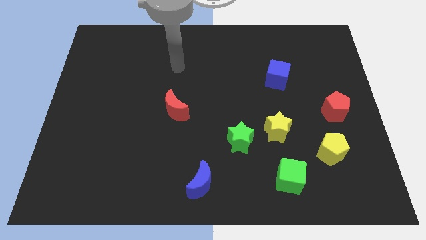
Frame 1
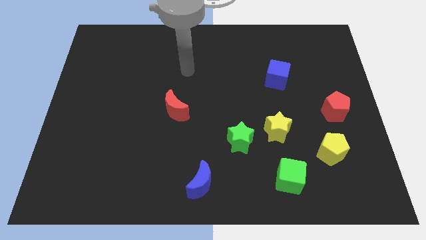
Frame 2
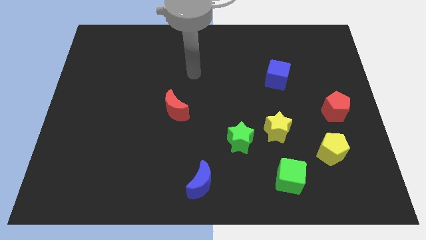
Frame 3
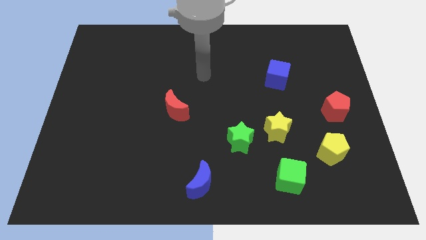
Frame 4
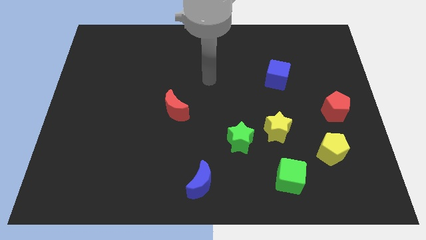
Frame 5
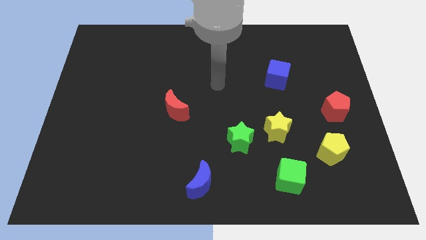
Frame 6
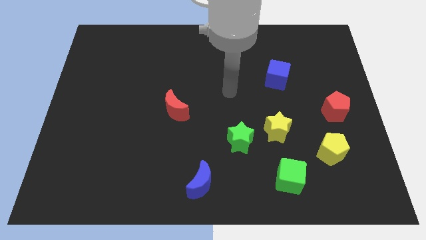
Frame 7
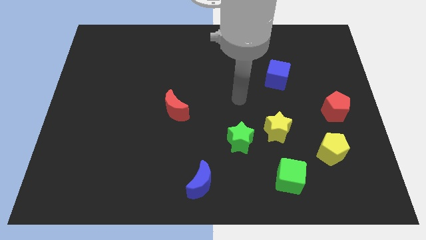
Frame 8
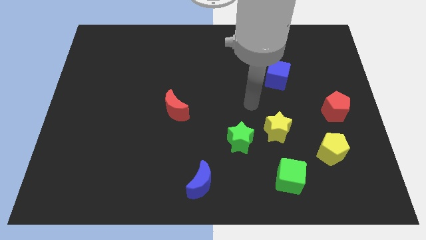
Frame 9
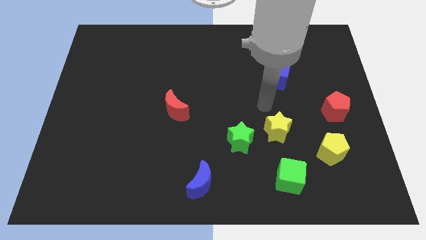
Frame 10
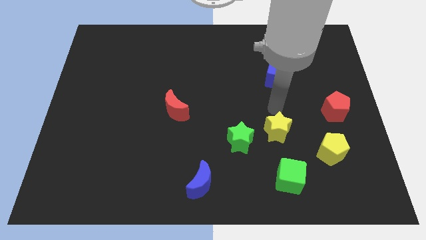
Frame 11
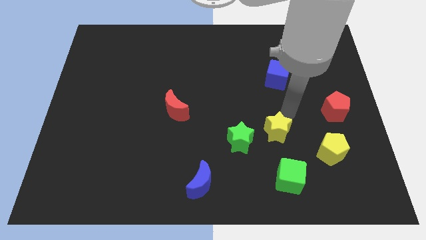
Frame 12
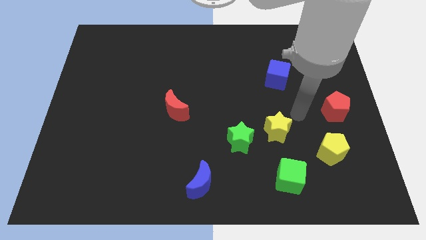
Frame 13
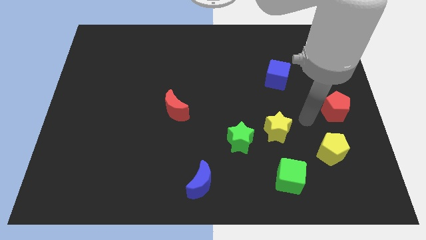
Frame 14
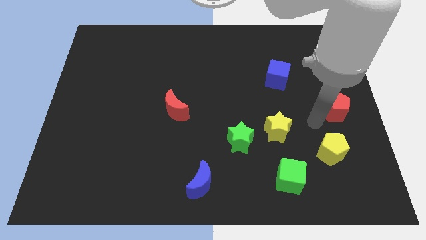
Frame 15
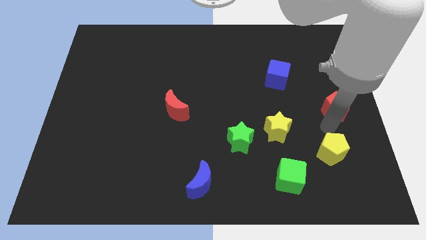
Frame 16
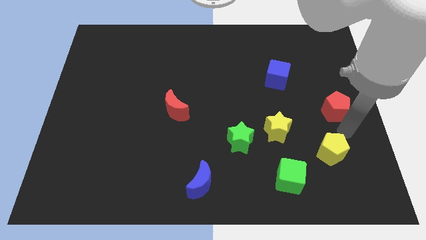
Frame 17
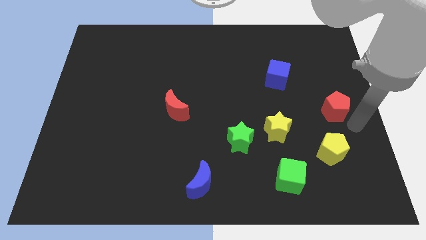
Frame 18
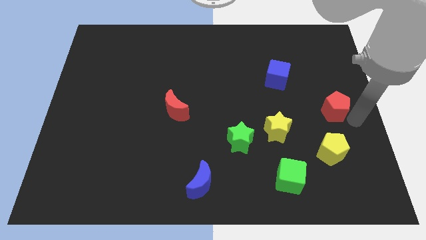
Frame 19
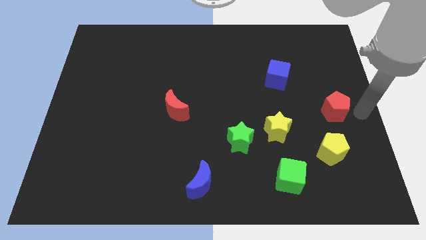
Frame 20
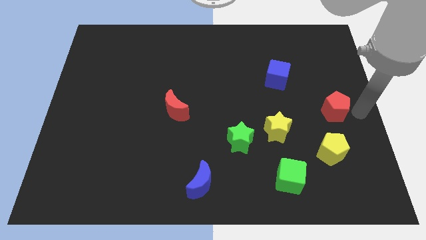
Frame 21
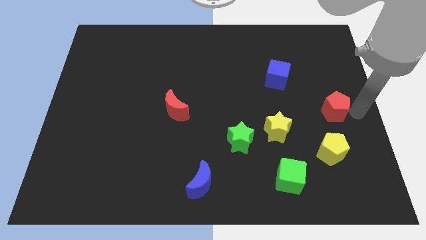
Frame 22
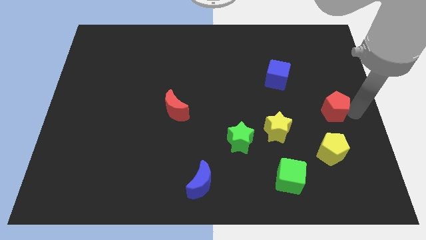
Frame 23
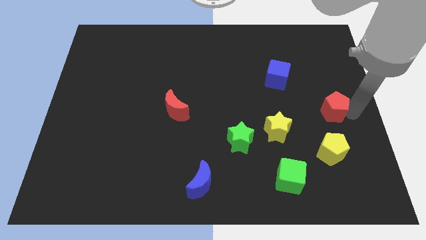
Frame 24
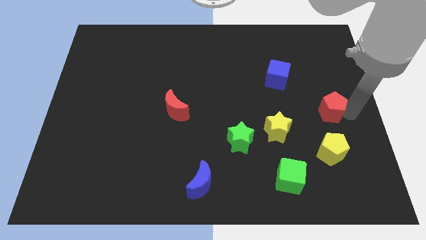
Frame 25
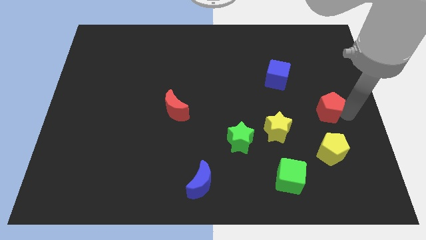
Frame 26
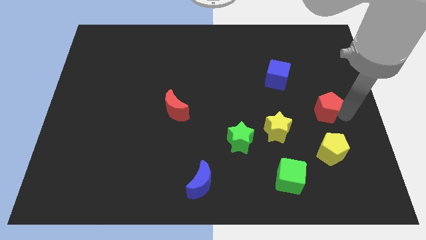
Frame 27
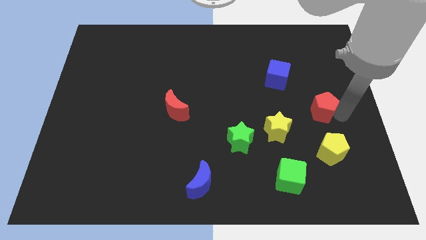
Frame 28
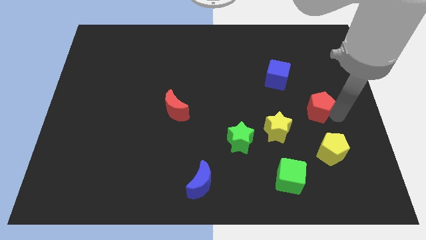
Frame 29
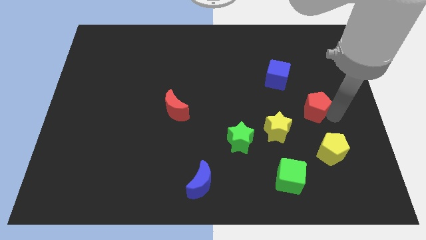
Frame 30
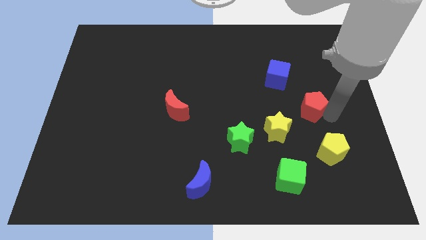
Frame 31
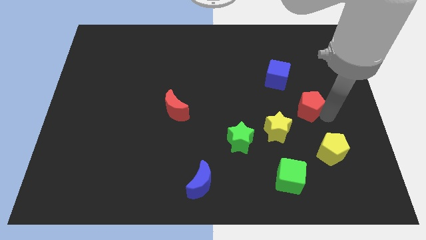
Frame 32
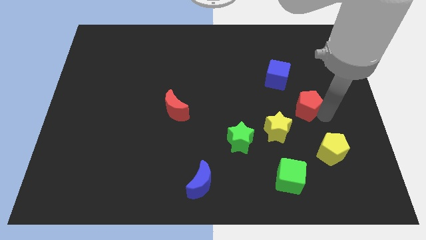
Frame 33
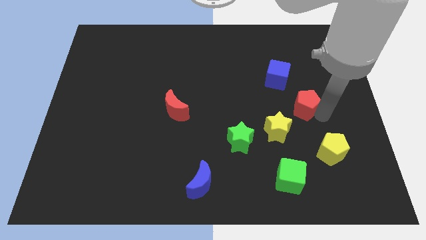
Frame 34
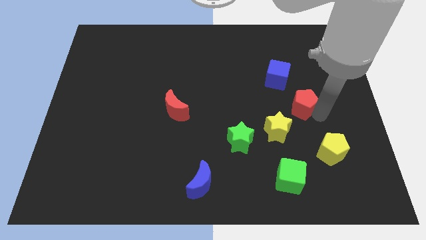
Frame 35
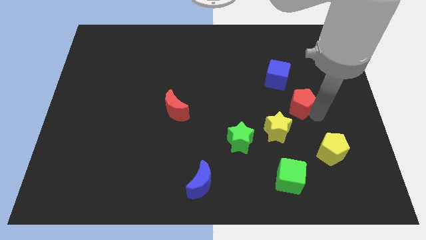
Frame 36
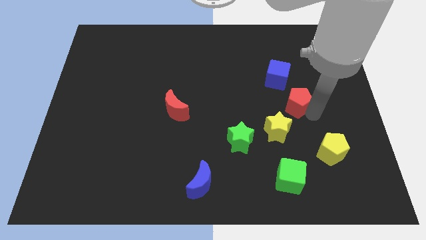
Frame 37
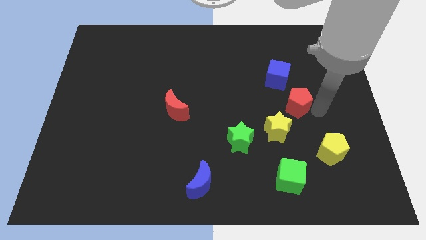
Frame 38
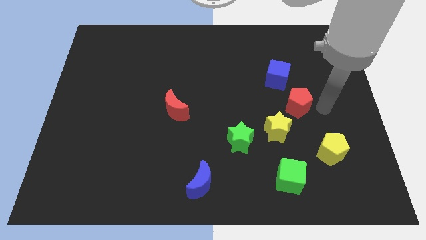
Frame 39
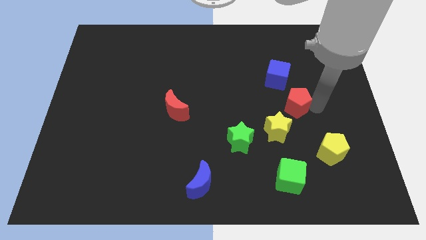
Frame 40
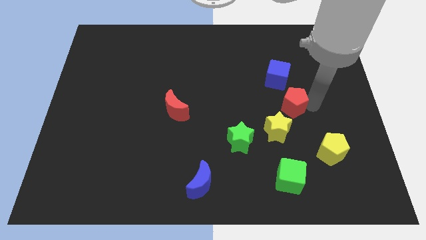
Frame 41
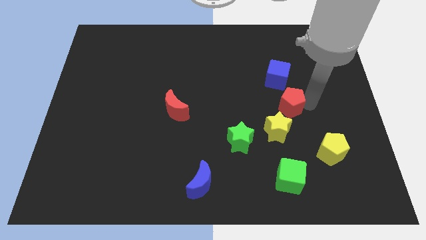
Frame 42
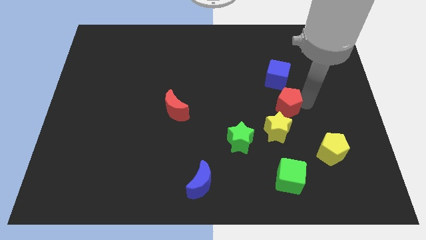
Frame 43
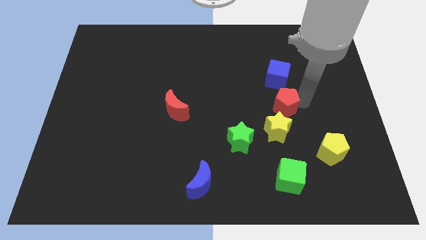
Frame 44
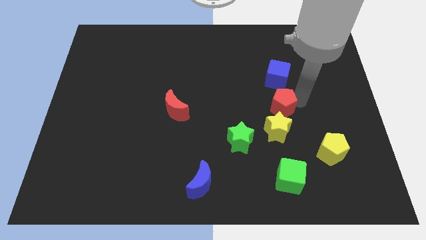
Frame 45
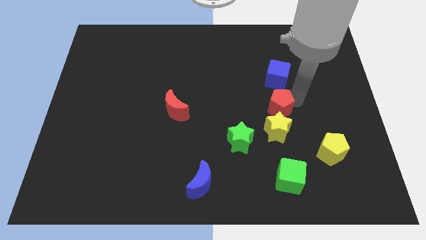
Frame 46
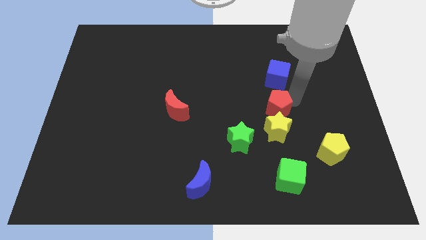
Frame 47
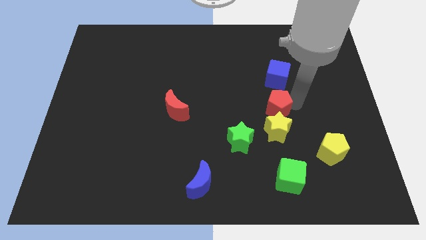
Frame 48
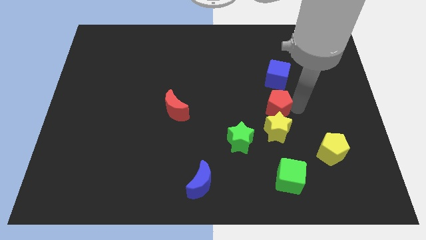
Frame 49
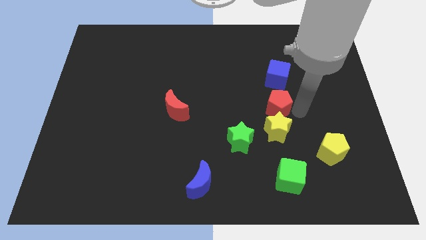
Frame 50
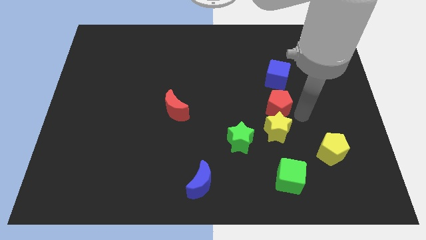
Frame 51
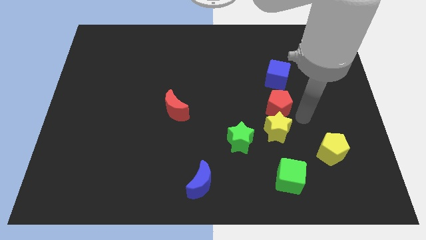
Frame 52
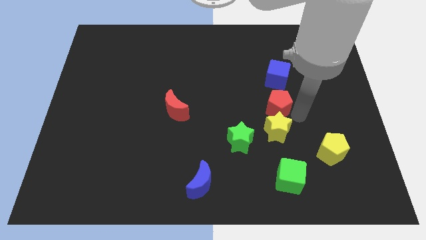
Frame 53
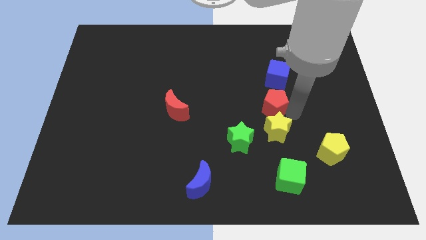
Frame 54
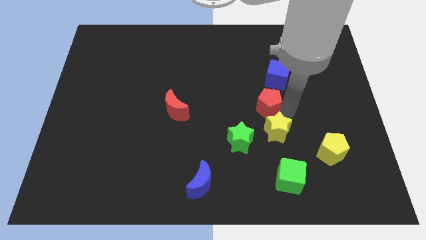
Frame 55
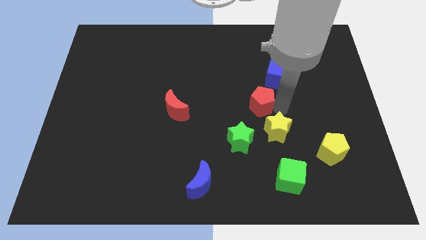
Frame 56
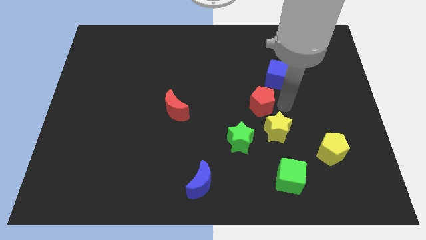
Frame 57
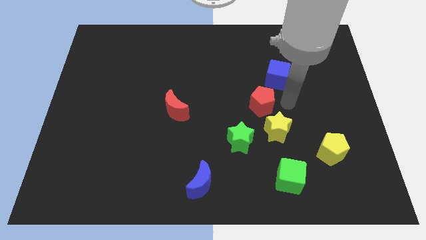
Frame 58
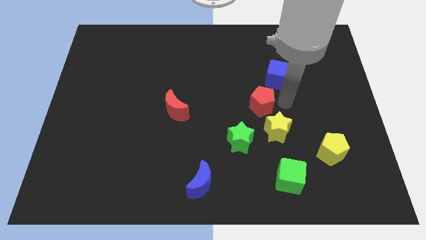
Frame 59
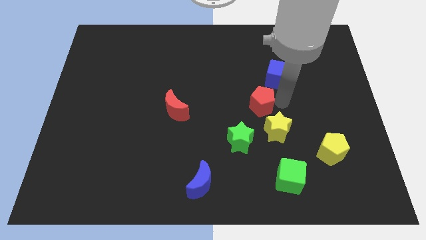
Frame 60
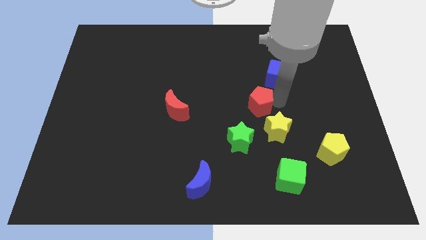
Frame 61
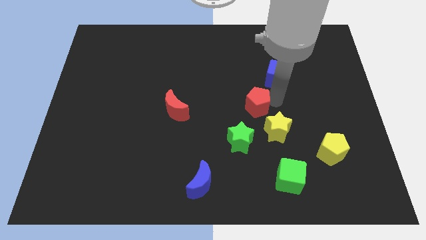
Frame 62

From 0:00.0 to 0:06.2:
put the red pentagon above the green star
